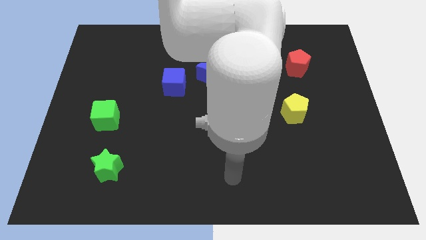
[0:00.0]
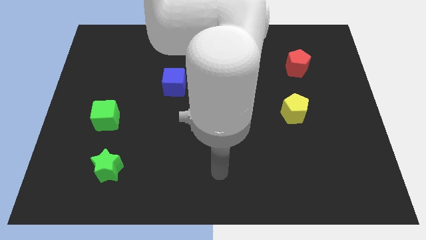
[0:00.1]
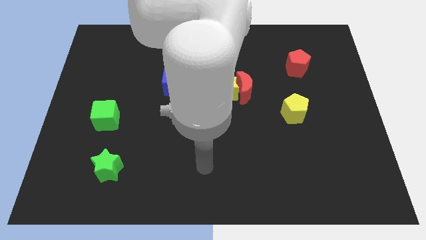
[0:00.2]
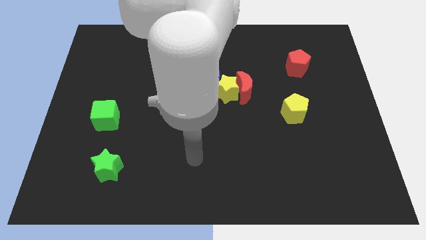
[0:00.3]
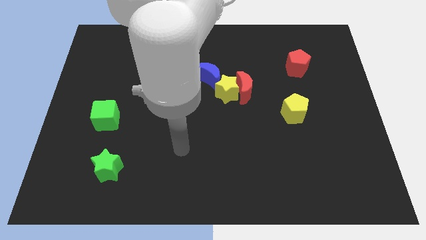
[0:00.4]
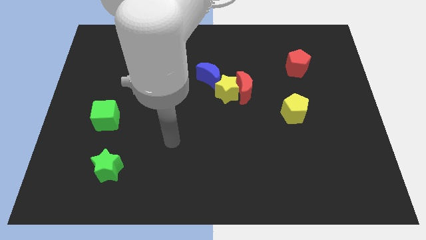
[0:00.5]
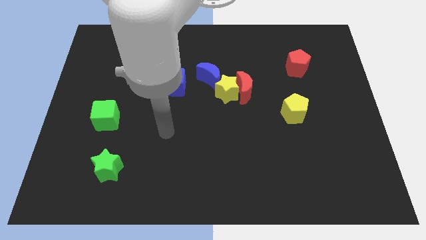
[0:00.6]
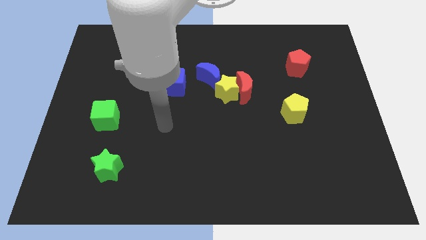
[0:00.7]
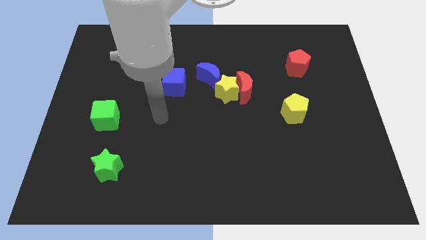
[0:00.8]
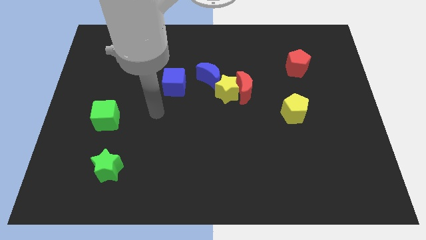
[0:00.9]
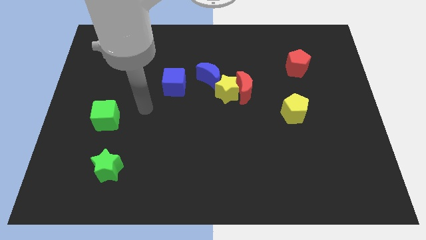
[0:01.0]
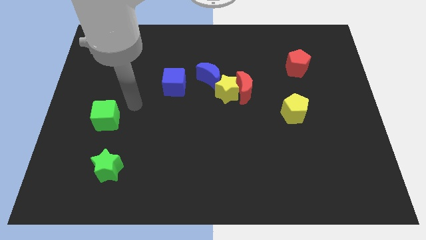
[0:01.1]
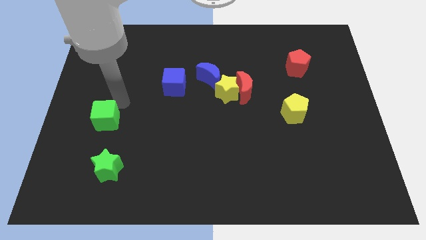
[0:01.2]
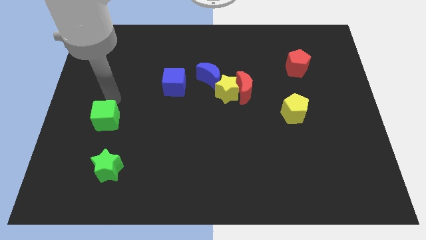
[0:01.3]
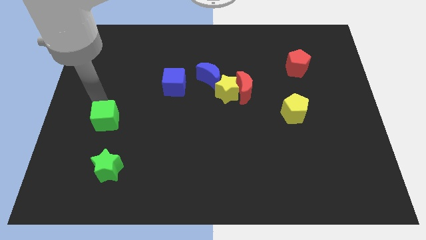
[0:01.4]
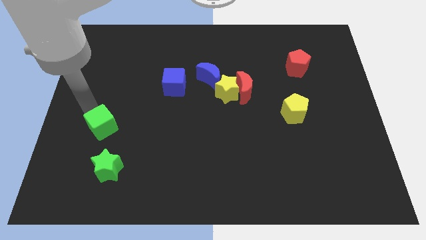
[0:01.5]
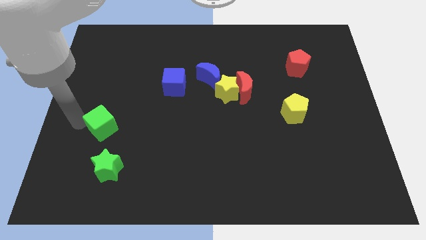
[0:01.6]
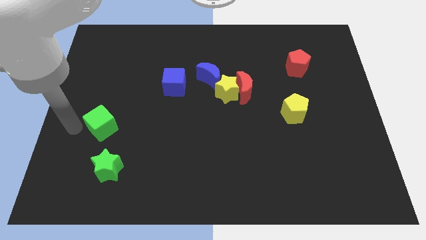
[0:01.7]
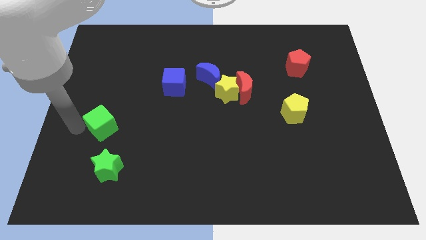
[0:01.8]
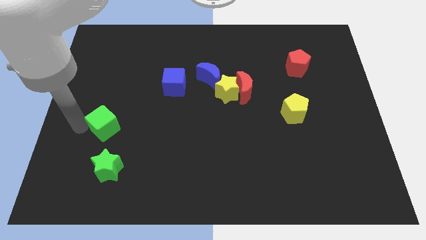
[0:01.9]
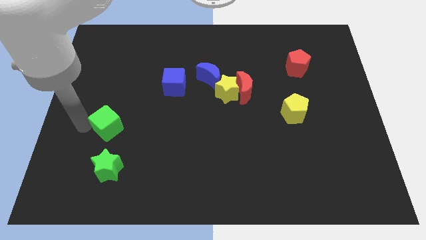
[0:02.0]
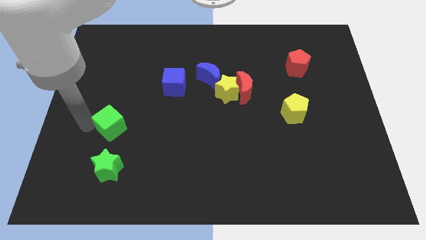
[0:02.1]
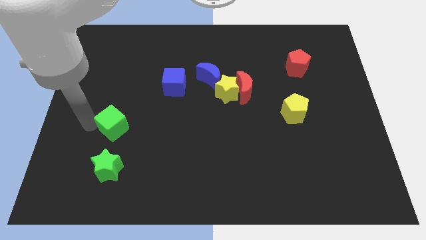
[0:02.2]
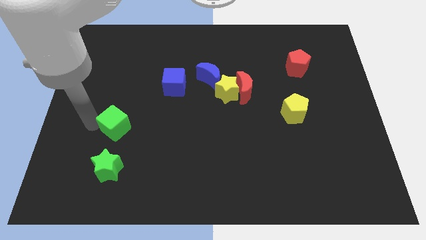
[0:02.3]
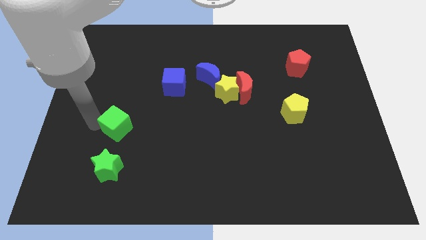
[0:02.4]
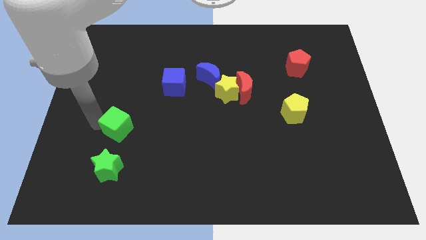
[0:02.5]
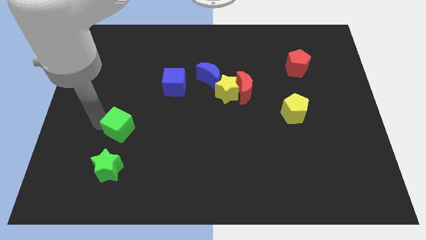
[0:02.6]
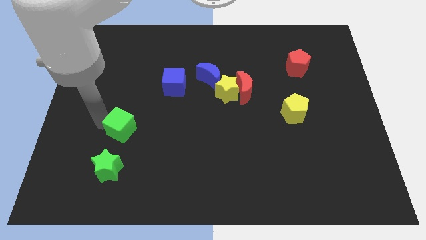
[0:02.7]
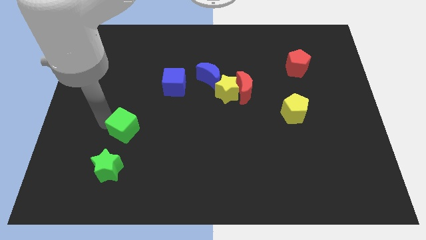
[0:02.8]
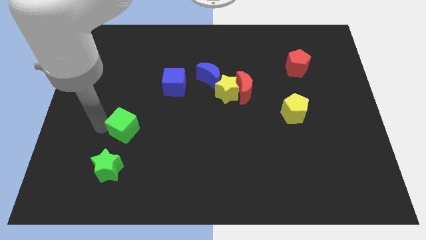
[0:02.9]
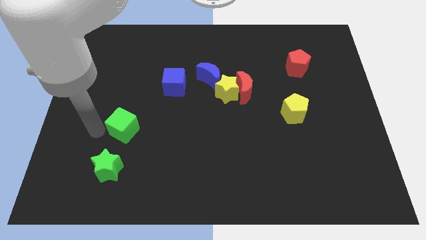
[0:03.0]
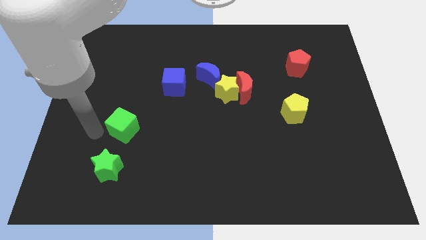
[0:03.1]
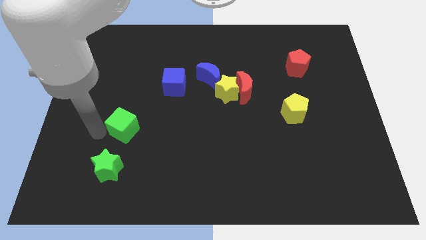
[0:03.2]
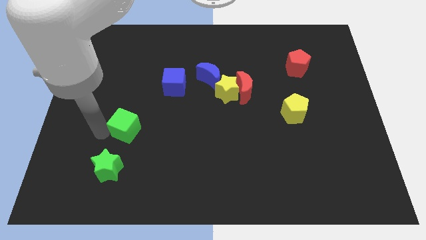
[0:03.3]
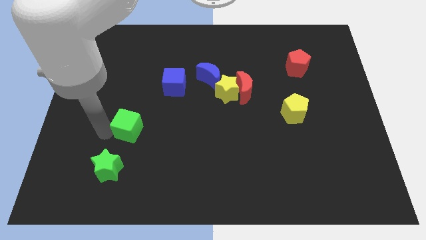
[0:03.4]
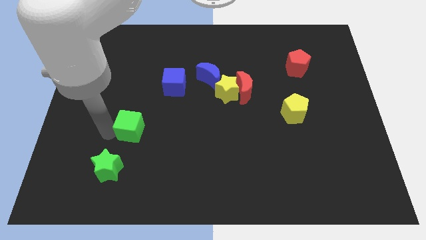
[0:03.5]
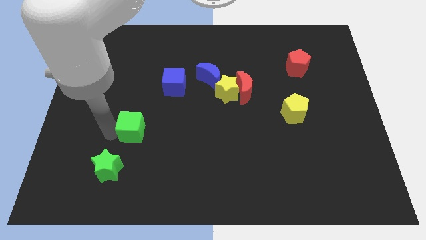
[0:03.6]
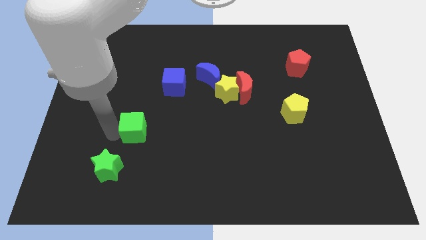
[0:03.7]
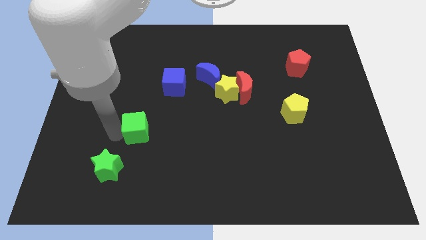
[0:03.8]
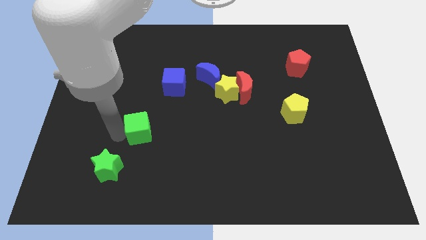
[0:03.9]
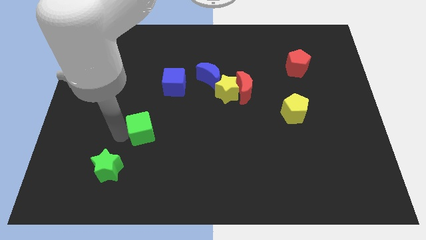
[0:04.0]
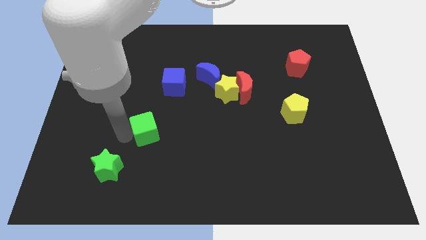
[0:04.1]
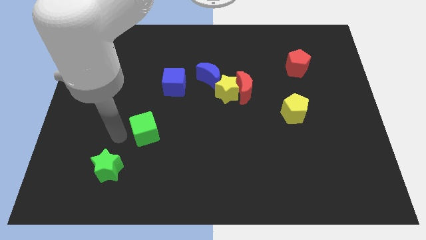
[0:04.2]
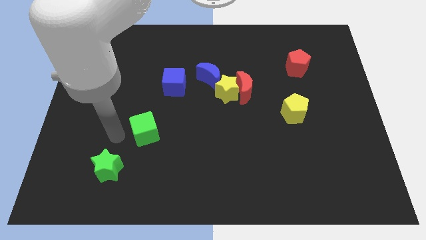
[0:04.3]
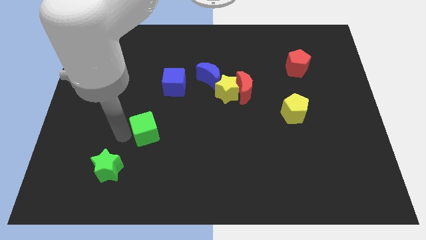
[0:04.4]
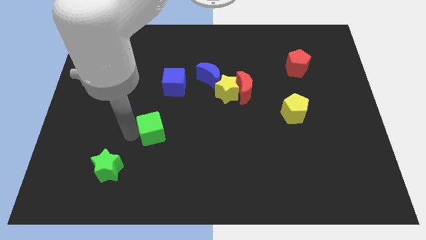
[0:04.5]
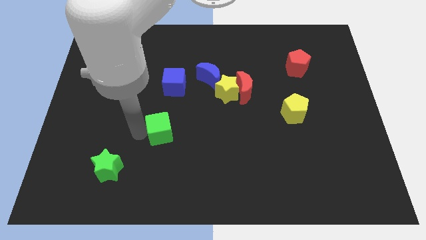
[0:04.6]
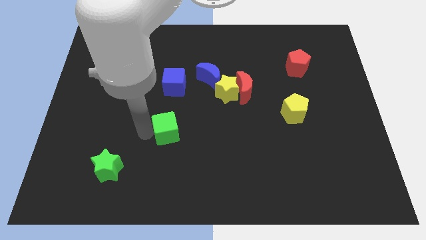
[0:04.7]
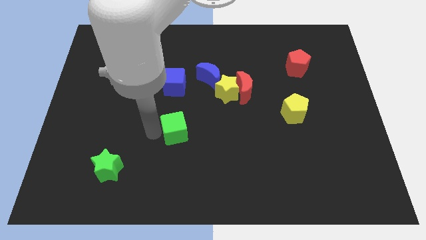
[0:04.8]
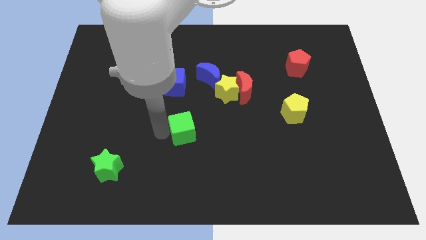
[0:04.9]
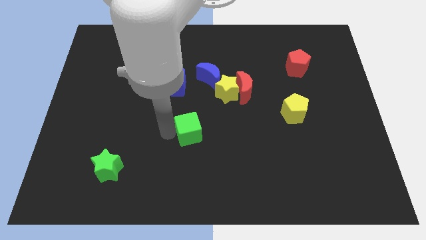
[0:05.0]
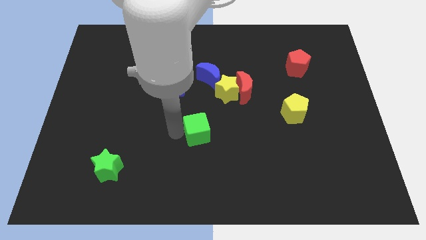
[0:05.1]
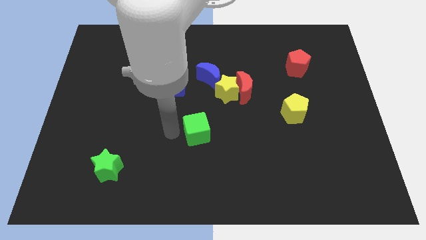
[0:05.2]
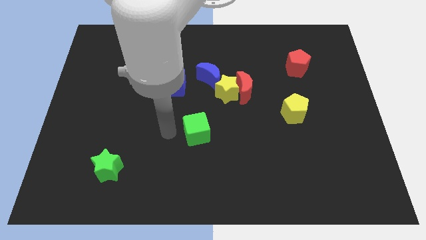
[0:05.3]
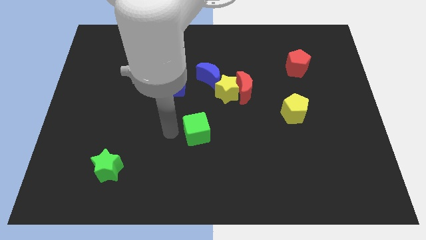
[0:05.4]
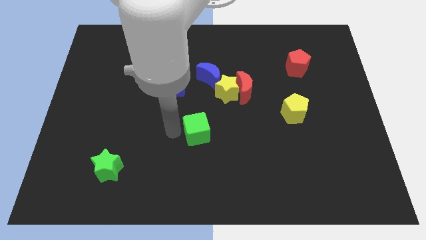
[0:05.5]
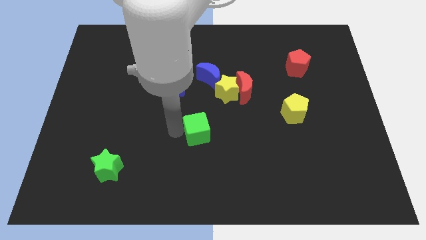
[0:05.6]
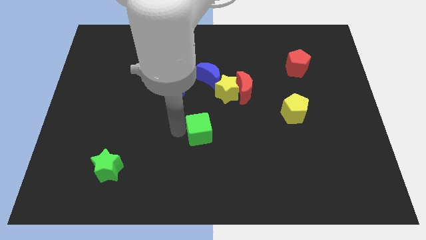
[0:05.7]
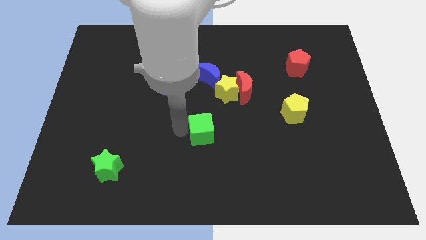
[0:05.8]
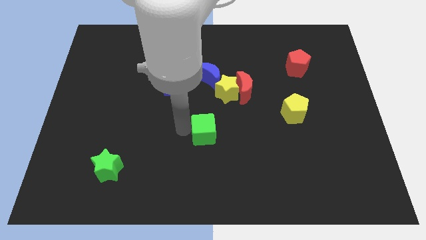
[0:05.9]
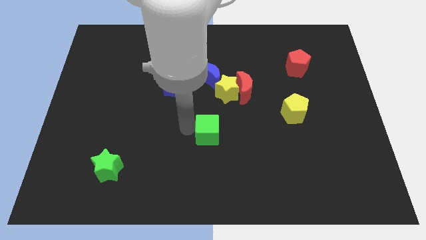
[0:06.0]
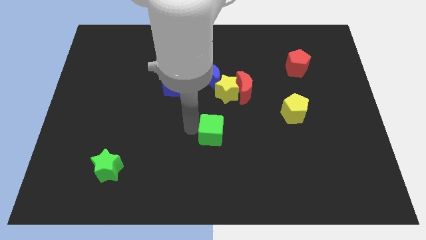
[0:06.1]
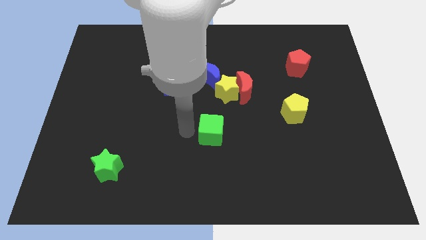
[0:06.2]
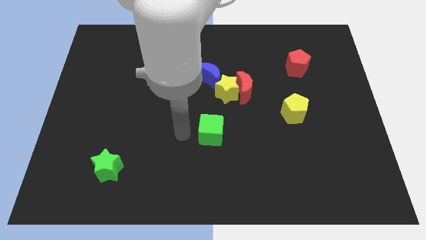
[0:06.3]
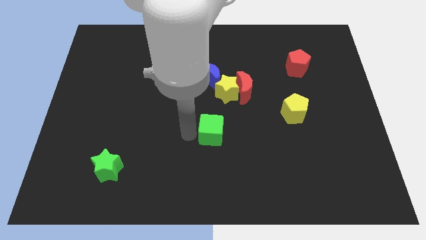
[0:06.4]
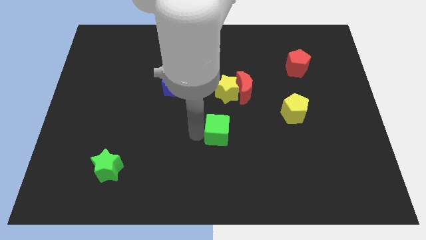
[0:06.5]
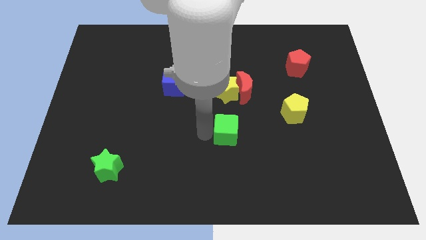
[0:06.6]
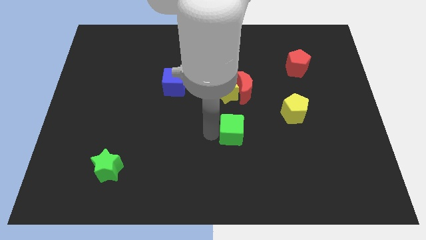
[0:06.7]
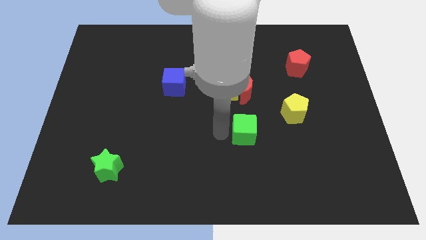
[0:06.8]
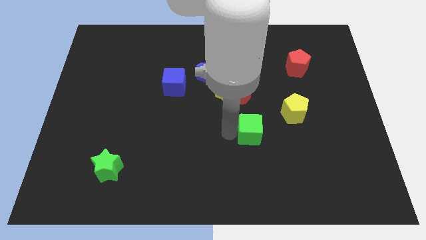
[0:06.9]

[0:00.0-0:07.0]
push the green cube diagonally down and to the left of the yellow pentagon

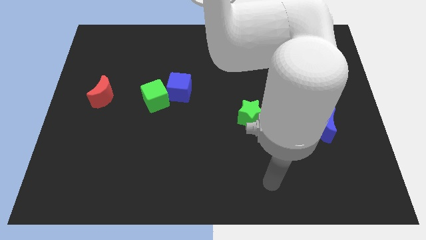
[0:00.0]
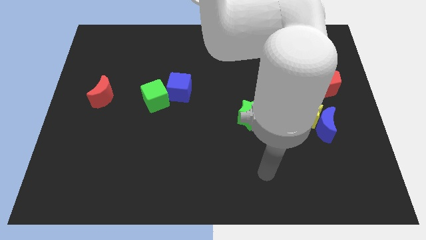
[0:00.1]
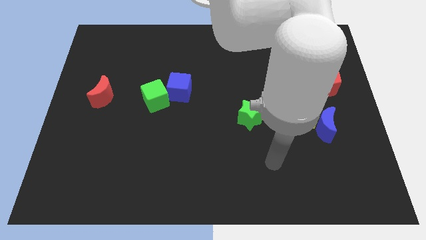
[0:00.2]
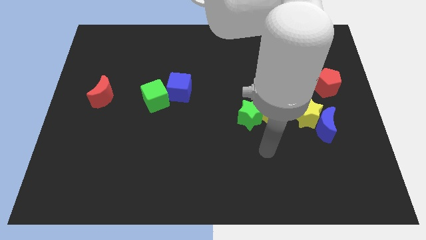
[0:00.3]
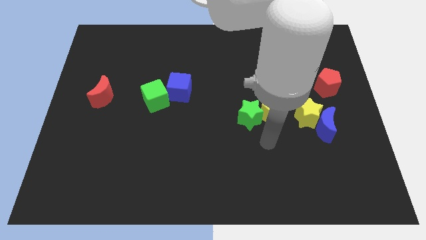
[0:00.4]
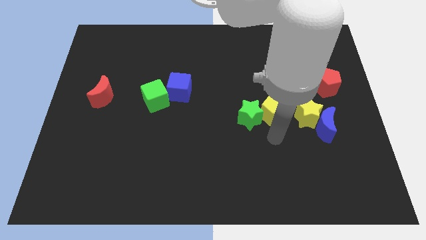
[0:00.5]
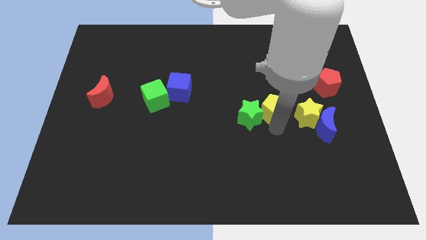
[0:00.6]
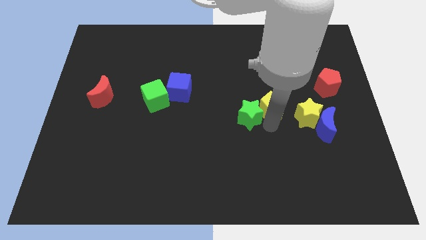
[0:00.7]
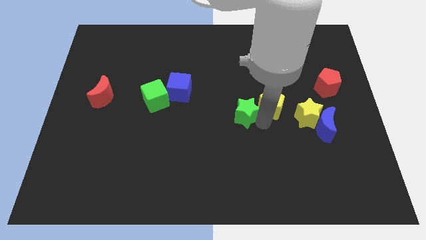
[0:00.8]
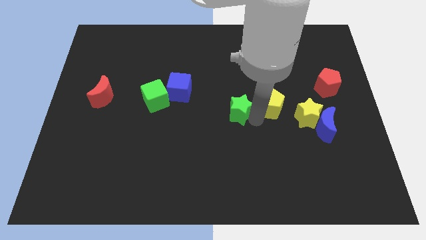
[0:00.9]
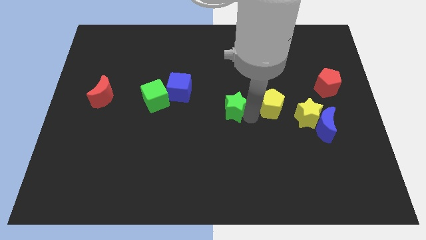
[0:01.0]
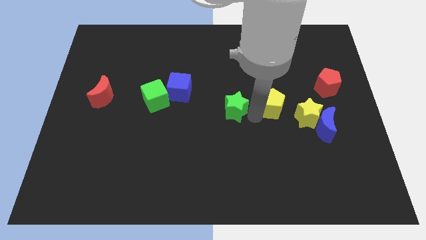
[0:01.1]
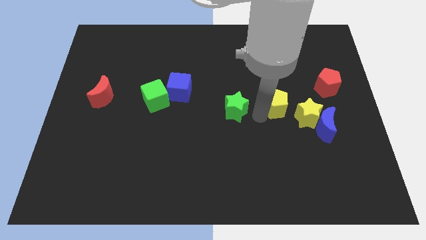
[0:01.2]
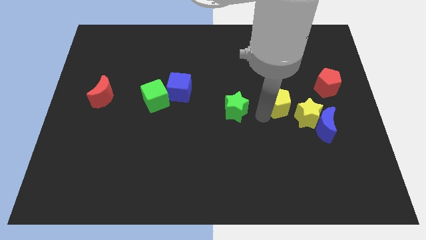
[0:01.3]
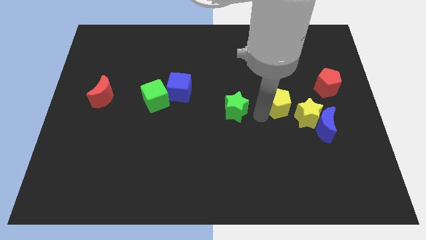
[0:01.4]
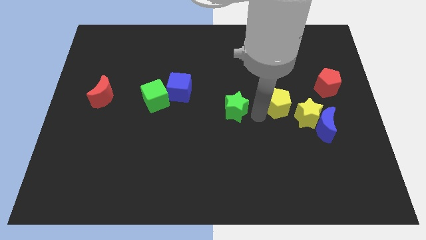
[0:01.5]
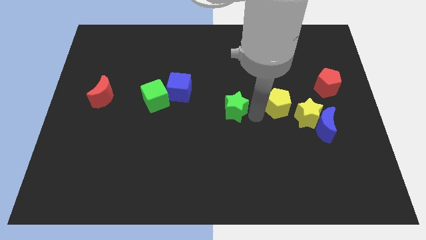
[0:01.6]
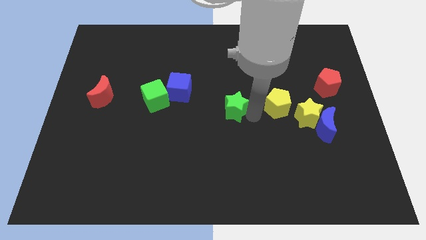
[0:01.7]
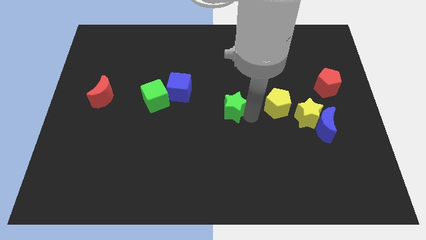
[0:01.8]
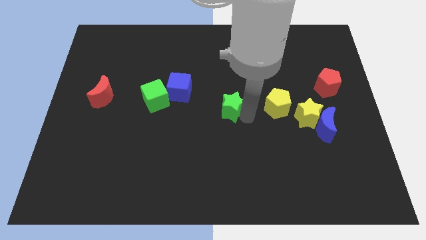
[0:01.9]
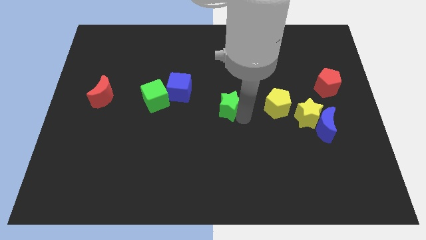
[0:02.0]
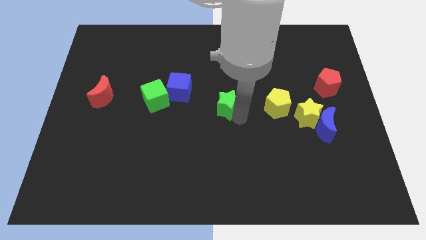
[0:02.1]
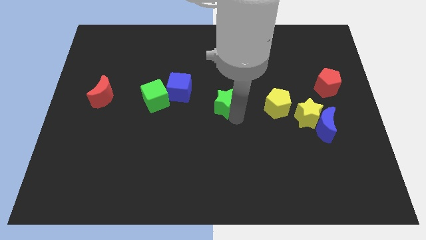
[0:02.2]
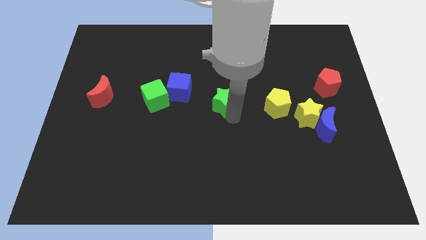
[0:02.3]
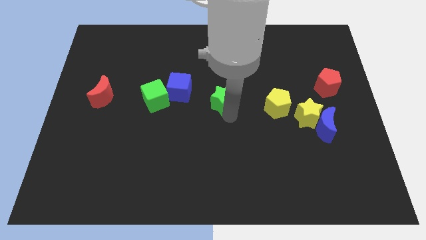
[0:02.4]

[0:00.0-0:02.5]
put the green star just right of the green cube
